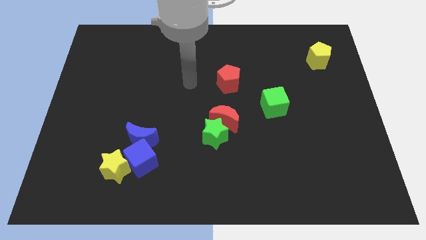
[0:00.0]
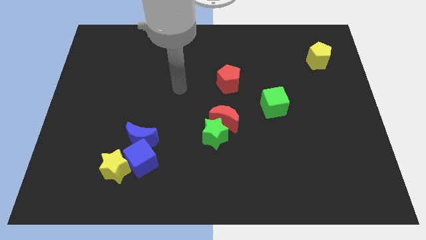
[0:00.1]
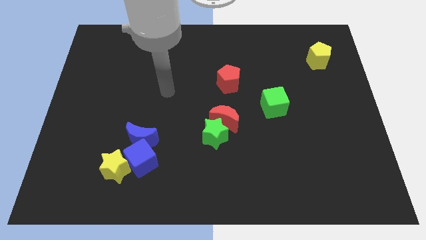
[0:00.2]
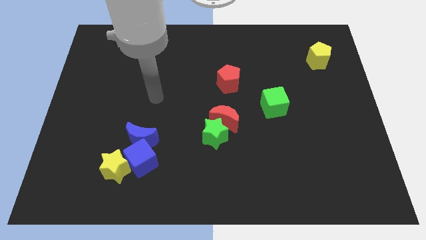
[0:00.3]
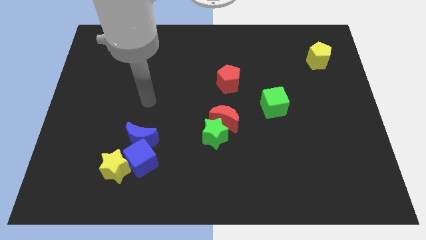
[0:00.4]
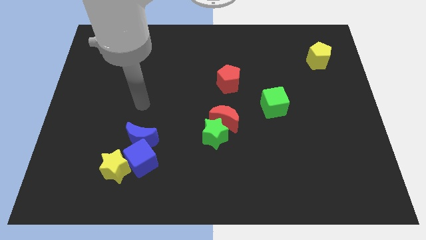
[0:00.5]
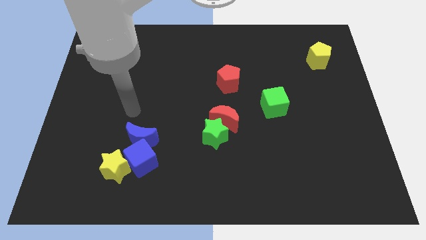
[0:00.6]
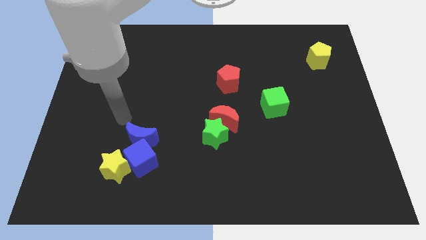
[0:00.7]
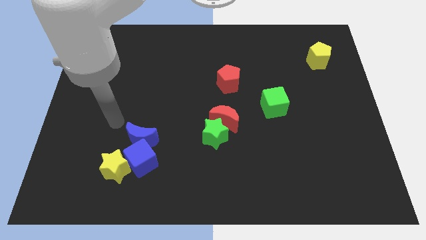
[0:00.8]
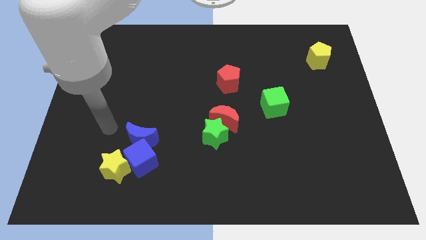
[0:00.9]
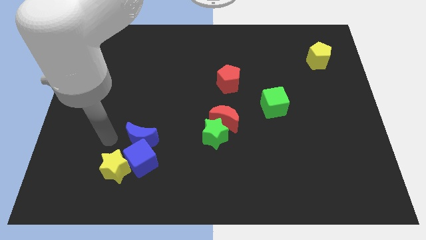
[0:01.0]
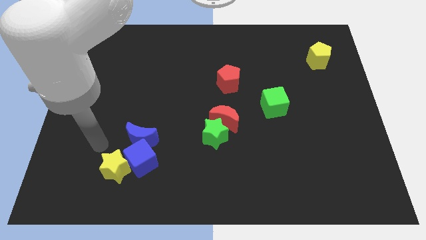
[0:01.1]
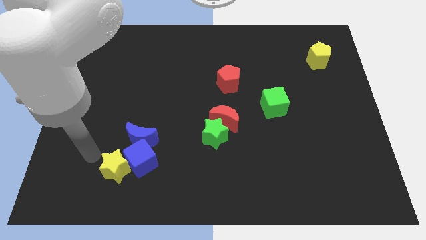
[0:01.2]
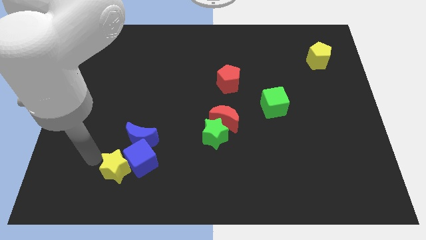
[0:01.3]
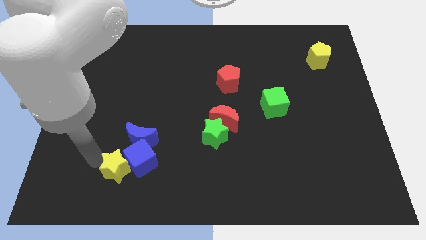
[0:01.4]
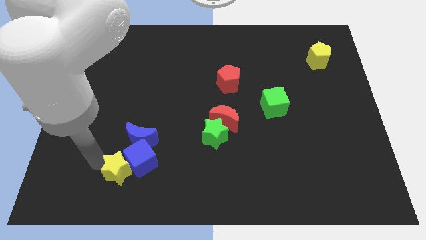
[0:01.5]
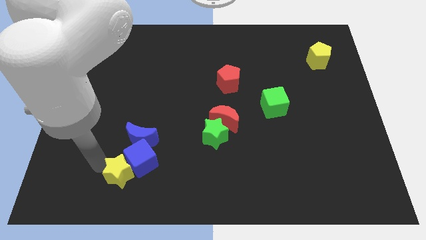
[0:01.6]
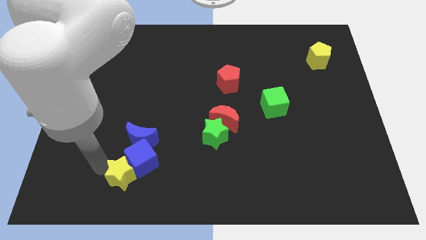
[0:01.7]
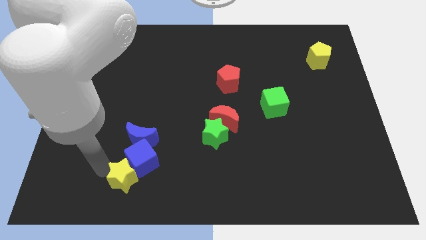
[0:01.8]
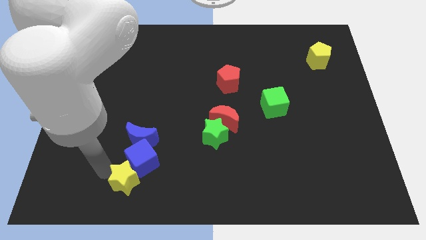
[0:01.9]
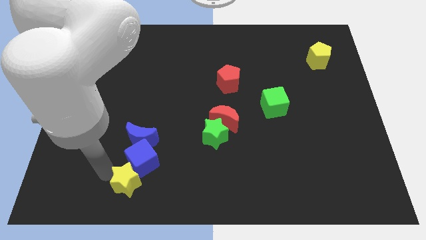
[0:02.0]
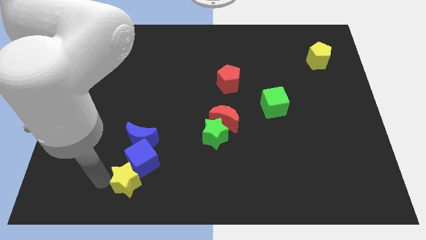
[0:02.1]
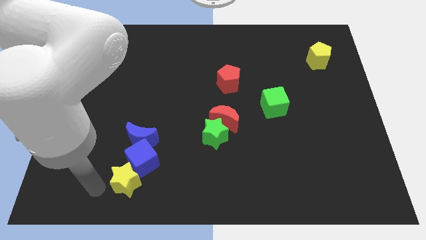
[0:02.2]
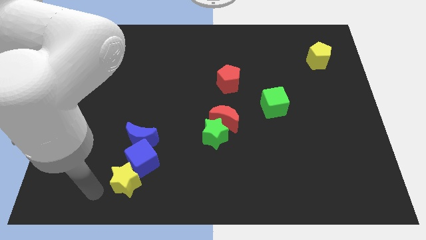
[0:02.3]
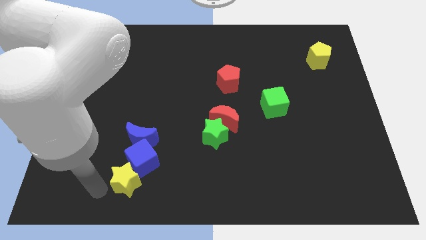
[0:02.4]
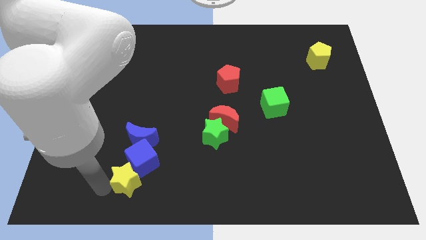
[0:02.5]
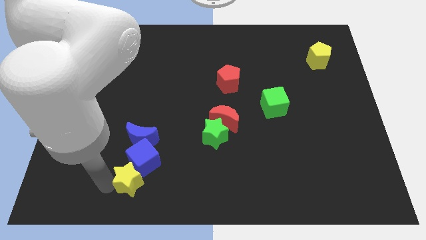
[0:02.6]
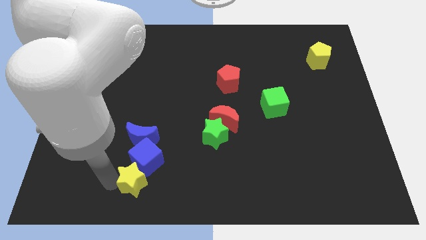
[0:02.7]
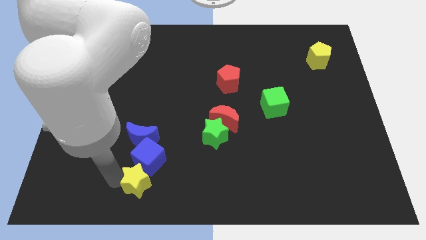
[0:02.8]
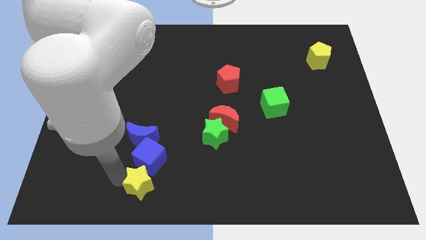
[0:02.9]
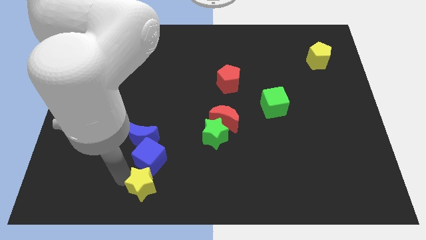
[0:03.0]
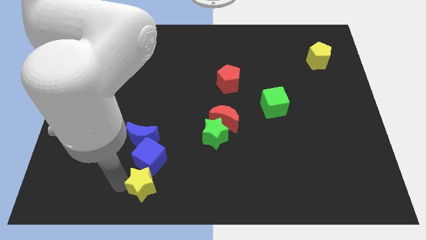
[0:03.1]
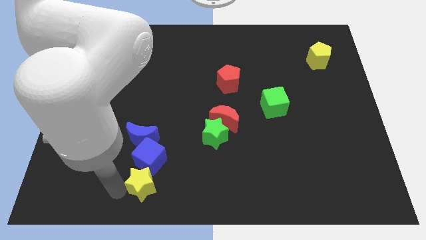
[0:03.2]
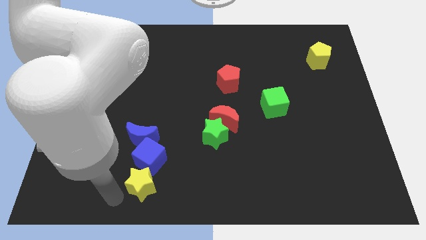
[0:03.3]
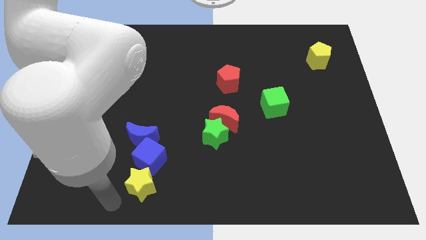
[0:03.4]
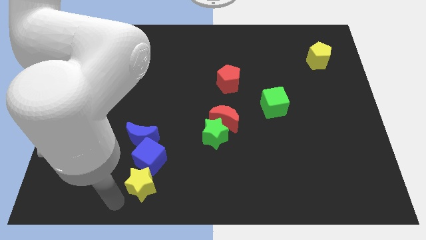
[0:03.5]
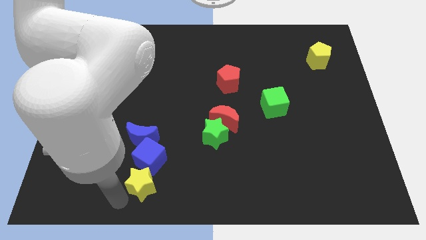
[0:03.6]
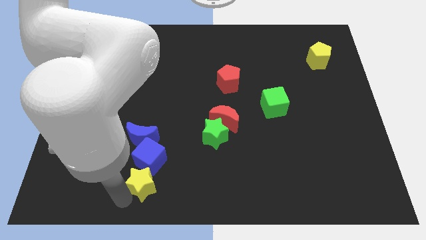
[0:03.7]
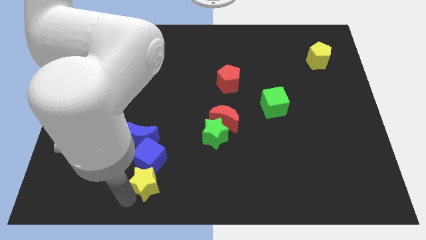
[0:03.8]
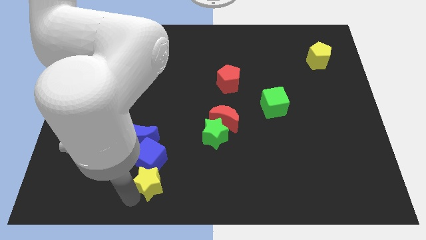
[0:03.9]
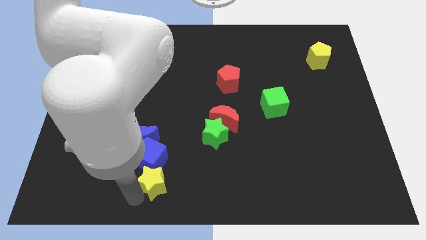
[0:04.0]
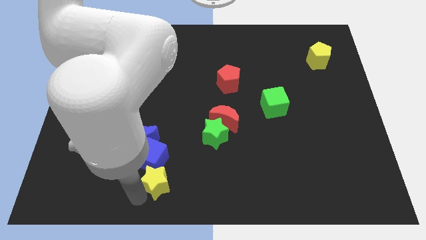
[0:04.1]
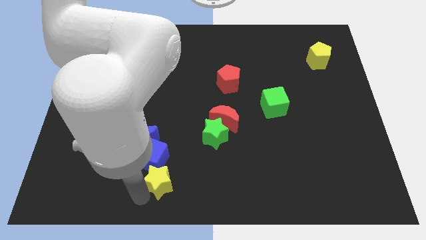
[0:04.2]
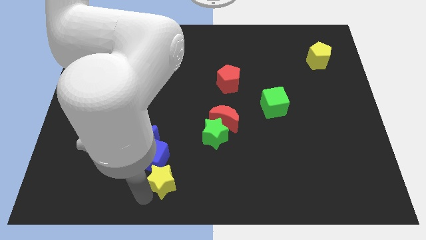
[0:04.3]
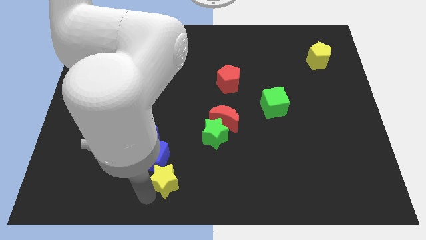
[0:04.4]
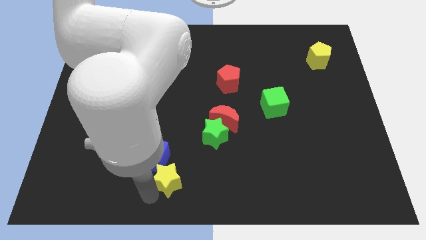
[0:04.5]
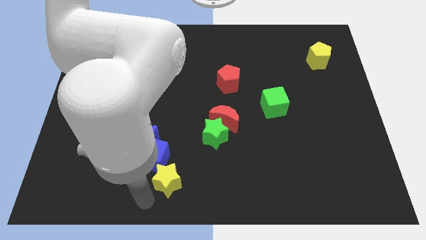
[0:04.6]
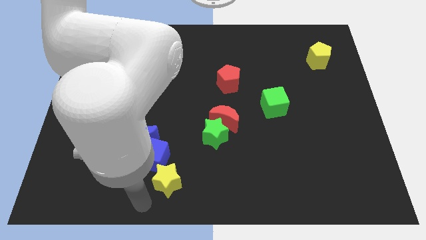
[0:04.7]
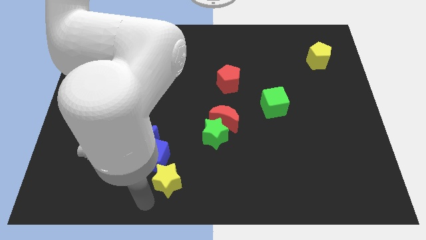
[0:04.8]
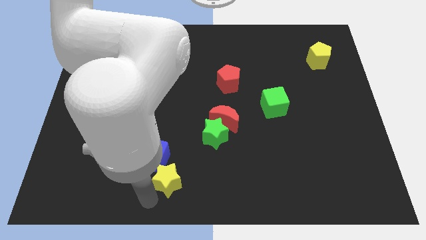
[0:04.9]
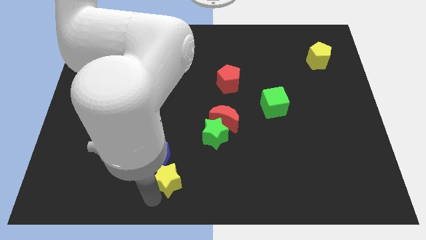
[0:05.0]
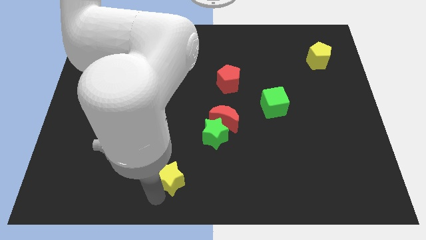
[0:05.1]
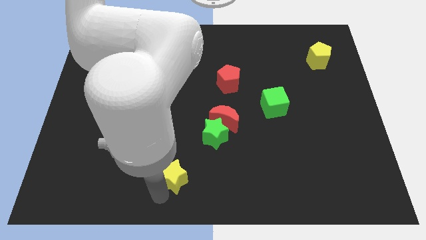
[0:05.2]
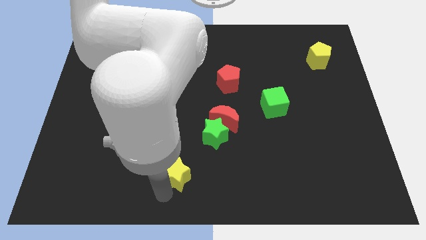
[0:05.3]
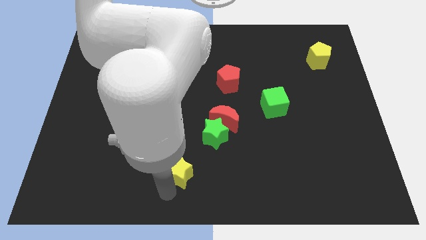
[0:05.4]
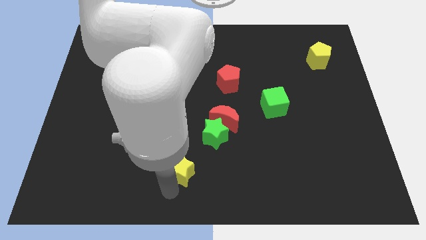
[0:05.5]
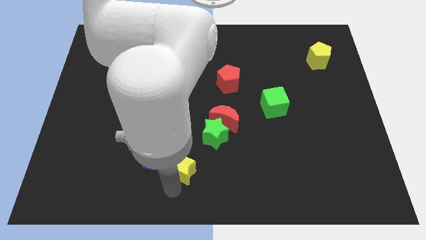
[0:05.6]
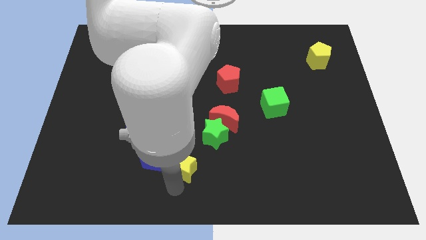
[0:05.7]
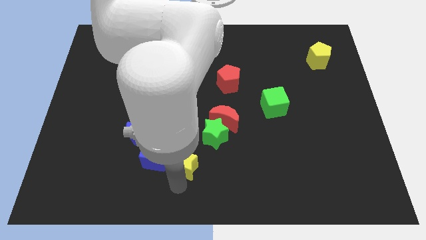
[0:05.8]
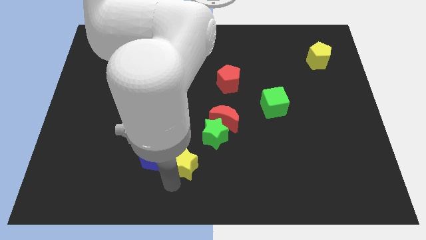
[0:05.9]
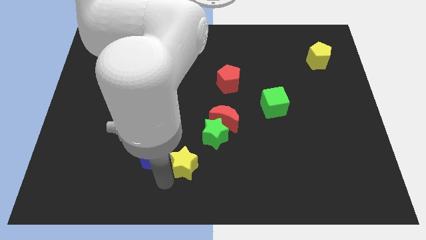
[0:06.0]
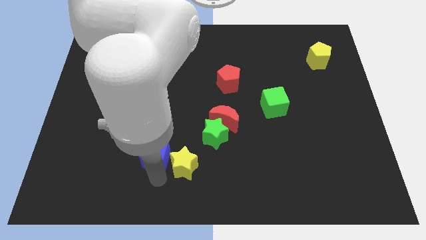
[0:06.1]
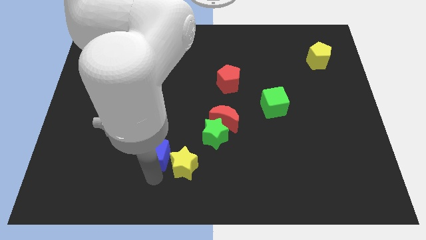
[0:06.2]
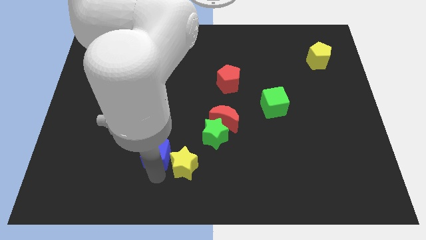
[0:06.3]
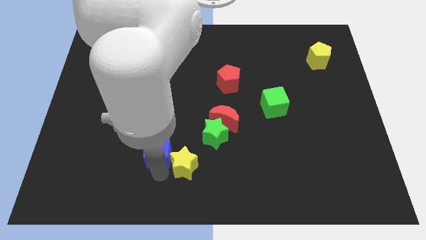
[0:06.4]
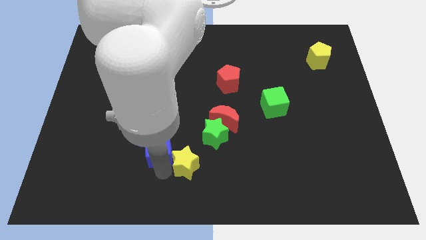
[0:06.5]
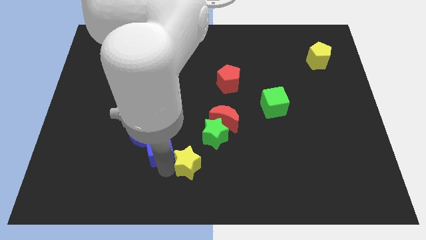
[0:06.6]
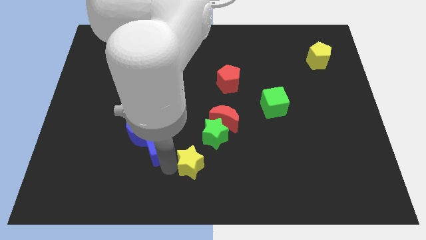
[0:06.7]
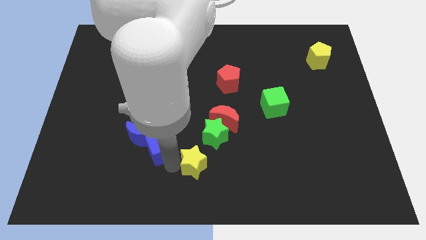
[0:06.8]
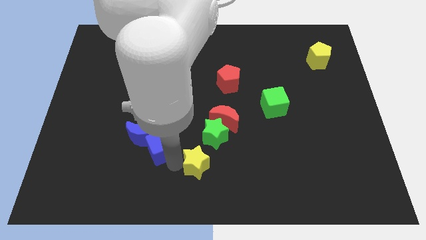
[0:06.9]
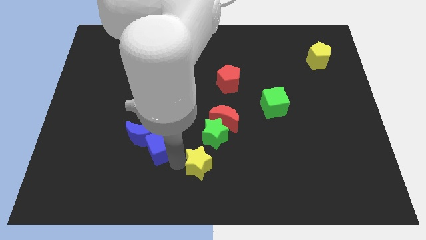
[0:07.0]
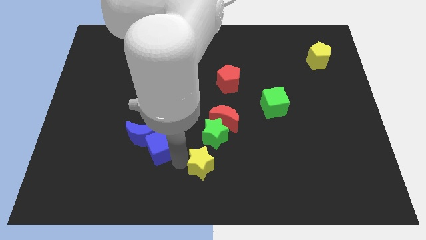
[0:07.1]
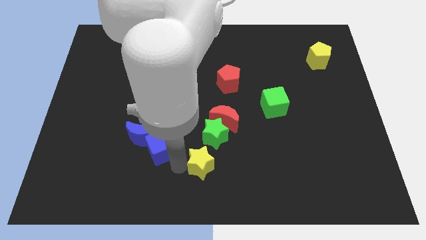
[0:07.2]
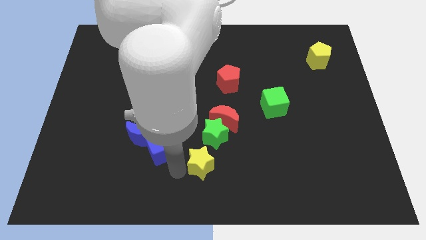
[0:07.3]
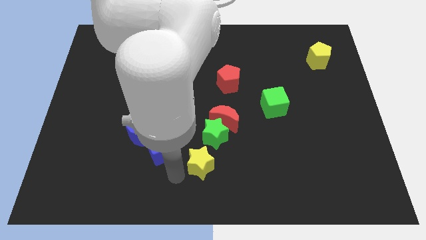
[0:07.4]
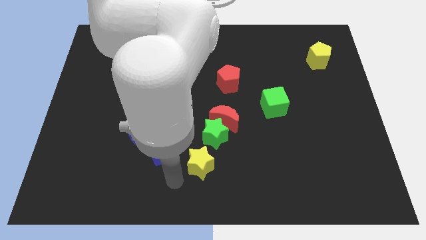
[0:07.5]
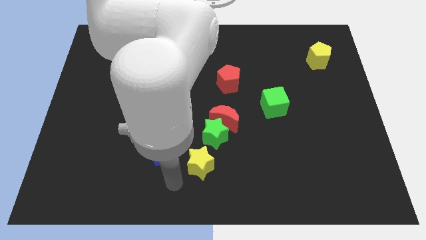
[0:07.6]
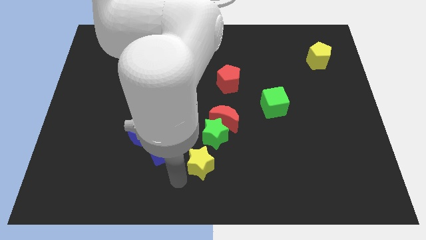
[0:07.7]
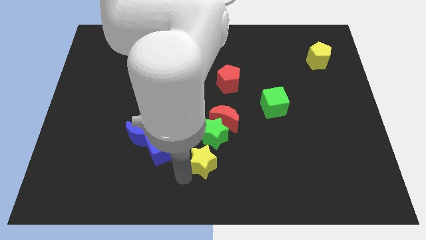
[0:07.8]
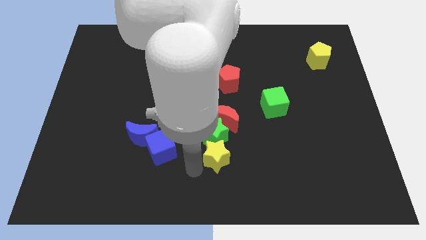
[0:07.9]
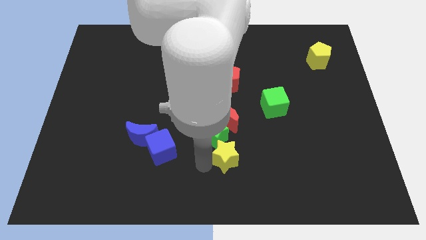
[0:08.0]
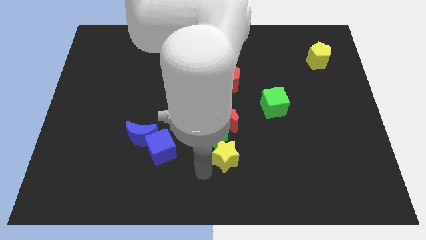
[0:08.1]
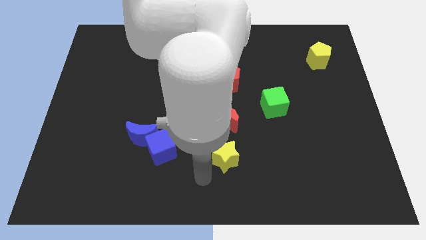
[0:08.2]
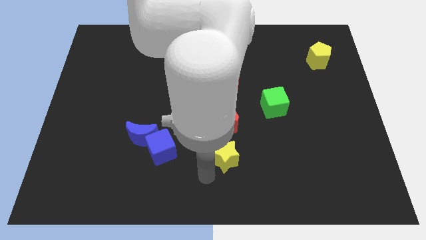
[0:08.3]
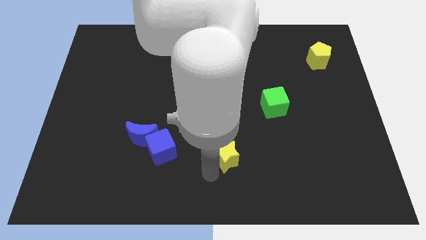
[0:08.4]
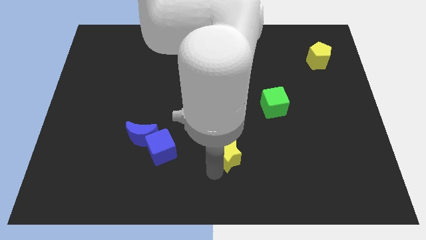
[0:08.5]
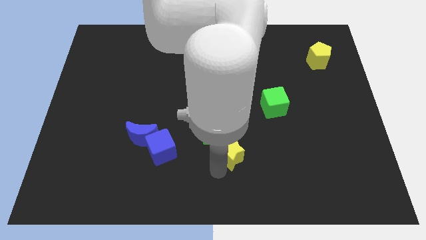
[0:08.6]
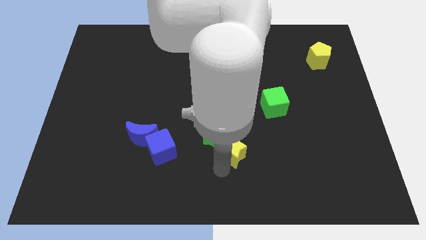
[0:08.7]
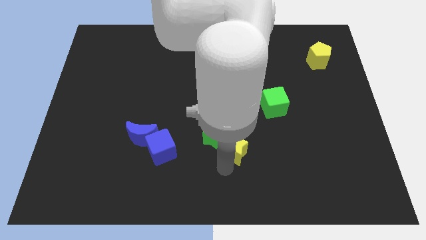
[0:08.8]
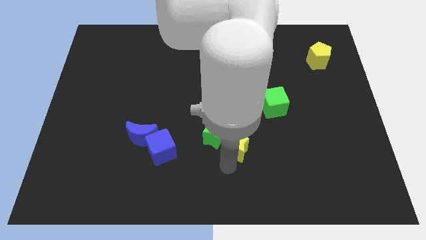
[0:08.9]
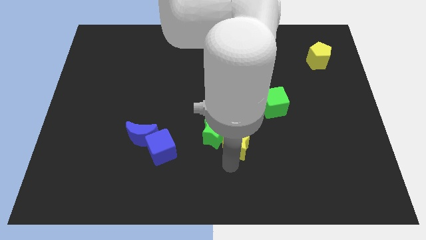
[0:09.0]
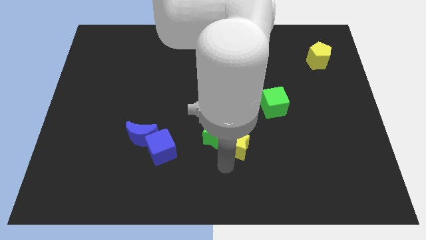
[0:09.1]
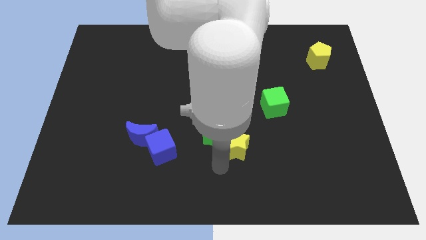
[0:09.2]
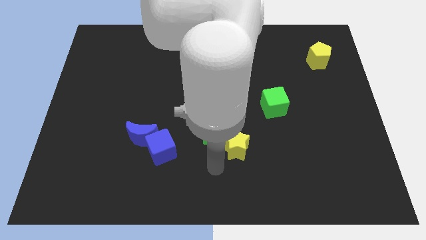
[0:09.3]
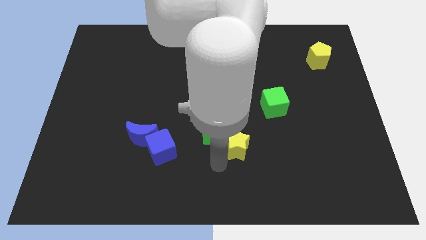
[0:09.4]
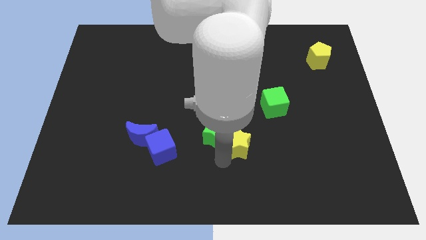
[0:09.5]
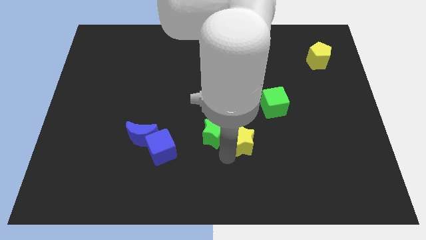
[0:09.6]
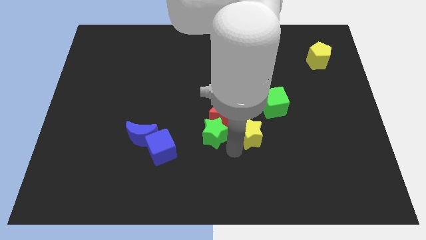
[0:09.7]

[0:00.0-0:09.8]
slide the yellow star to the right side of the red moon
